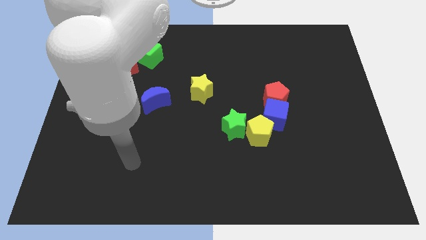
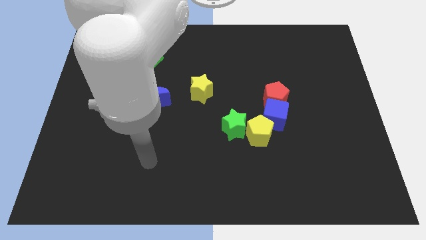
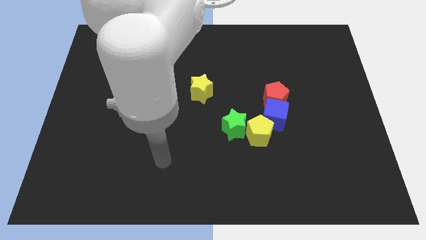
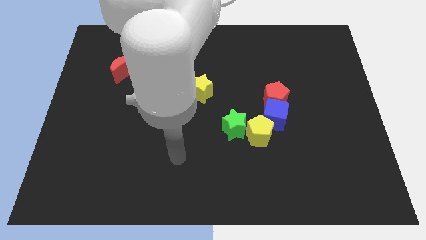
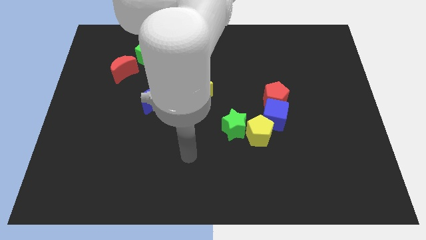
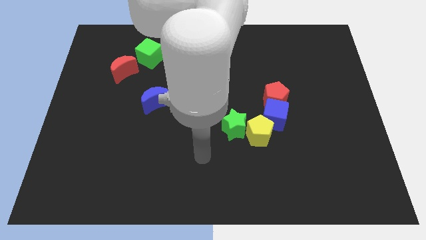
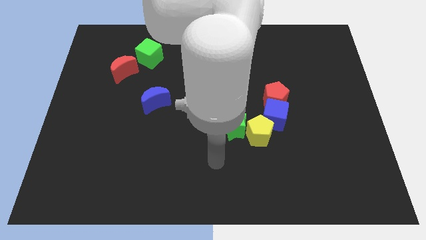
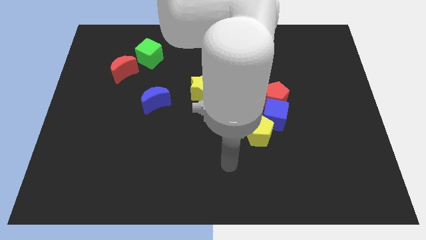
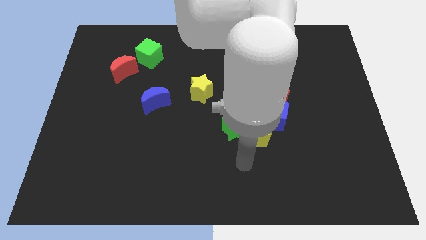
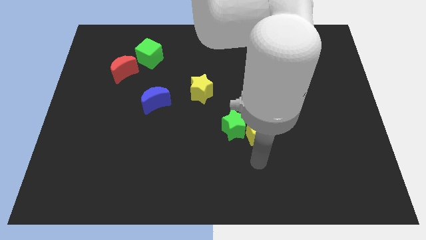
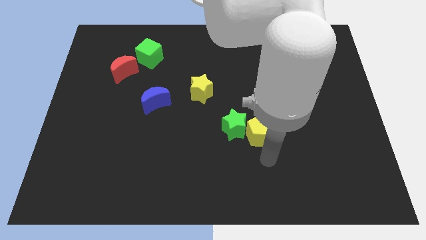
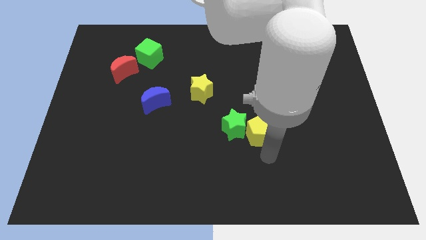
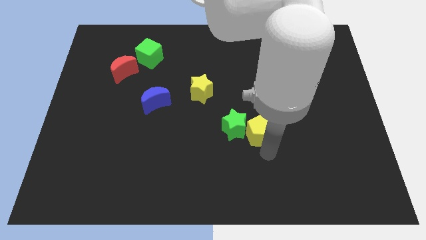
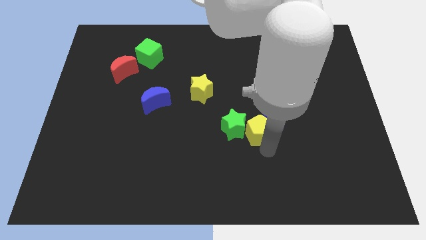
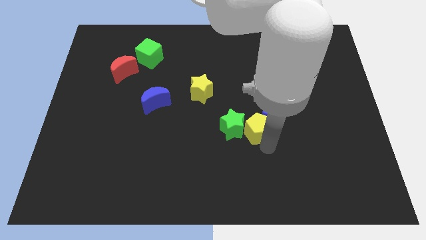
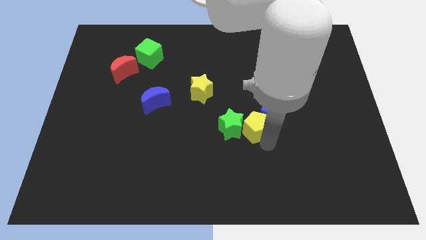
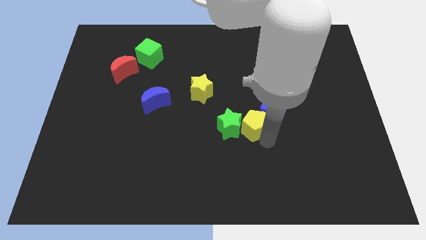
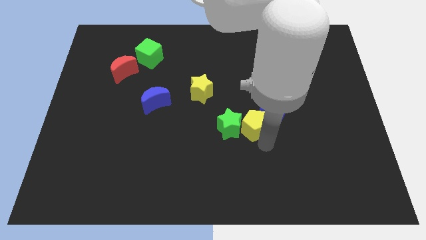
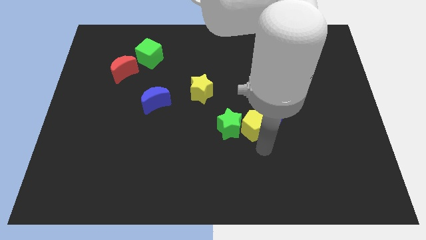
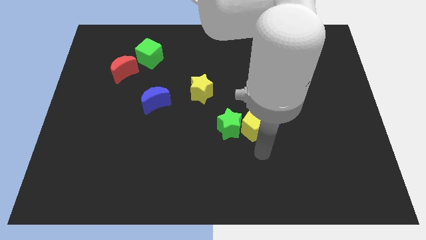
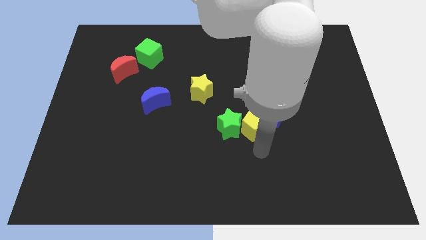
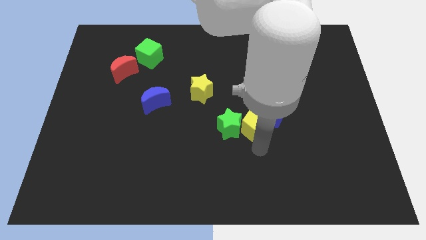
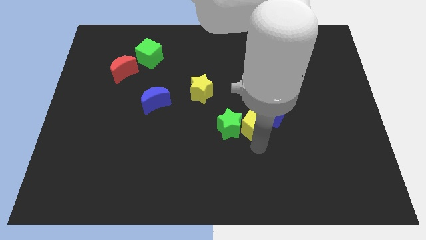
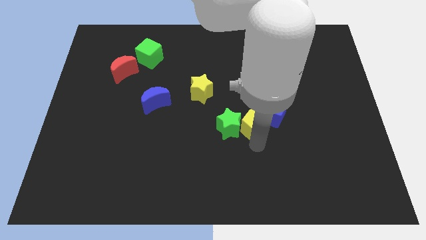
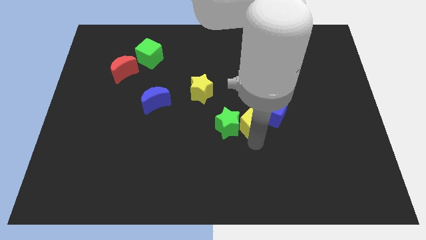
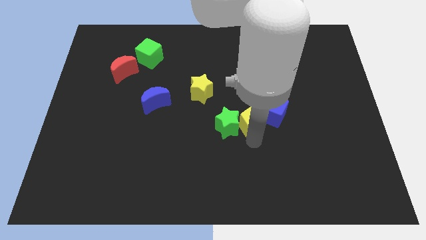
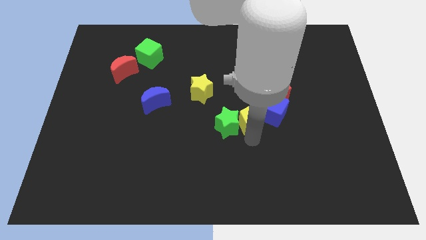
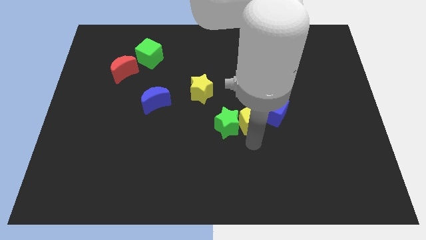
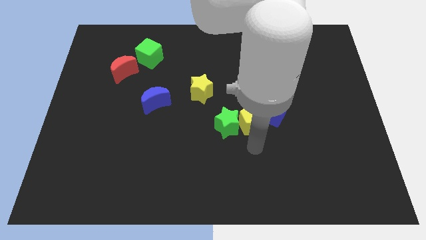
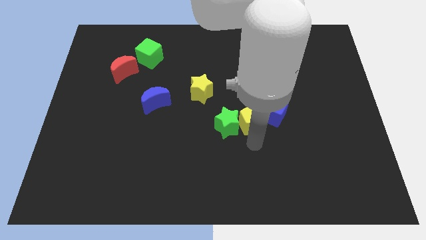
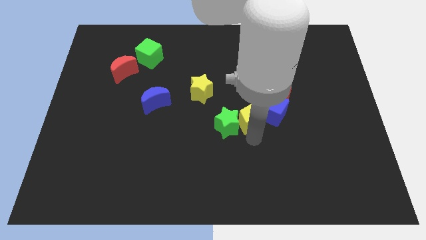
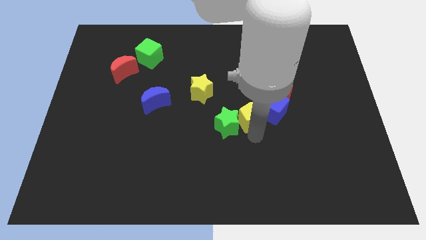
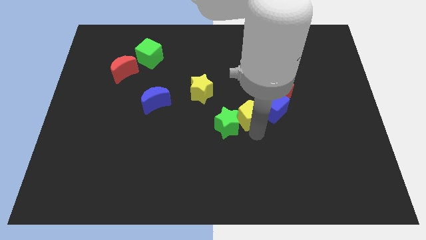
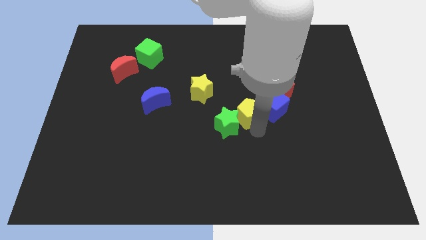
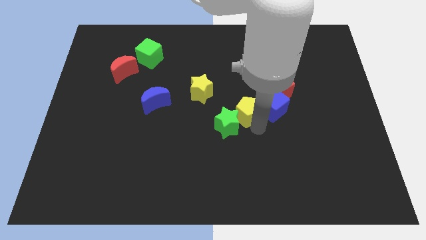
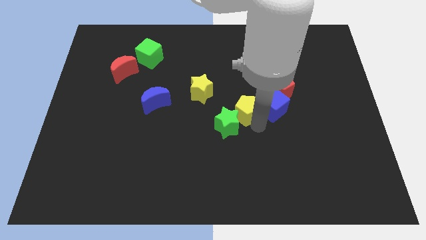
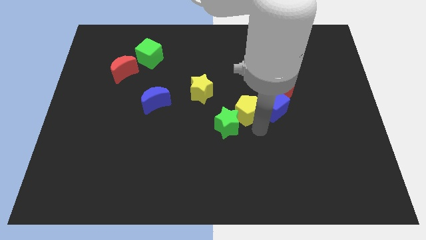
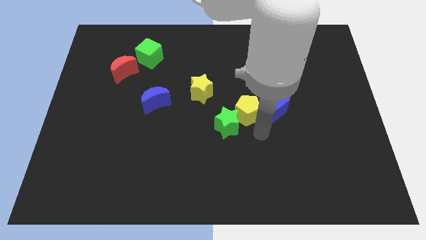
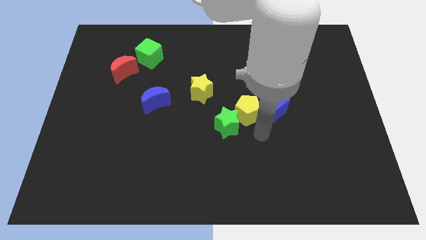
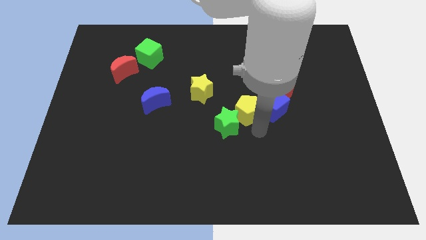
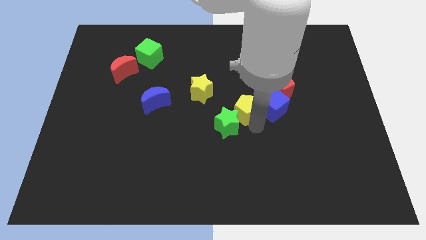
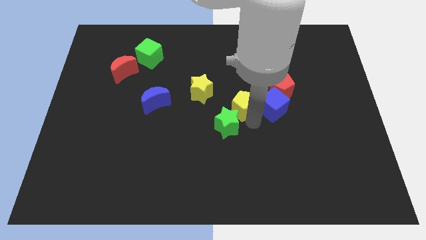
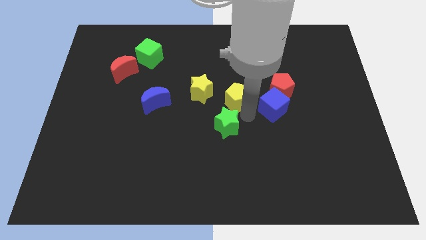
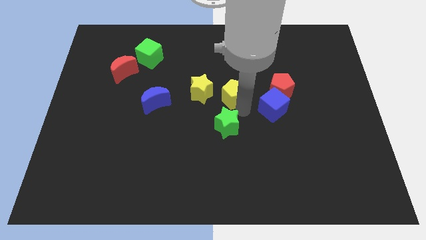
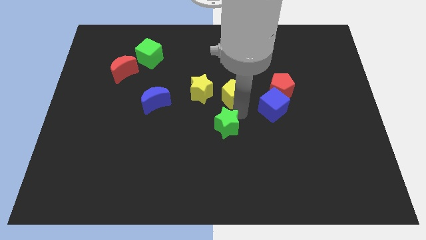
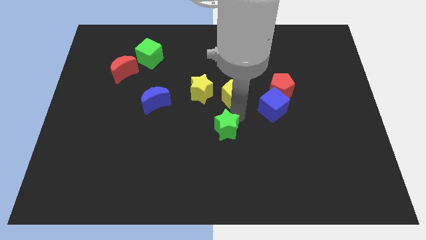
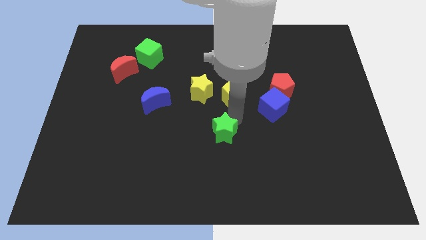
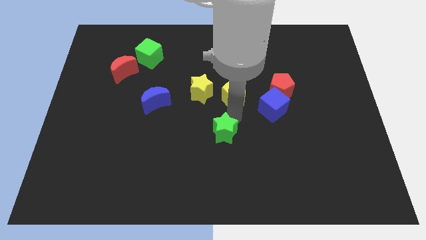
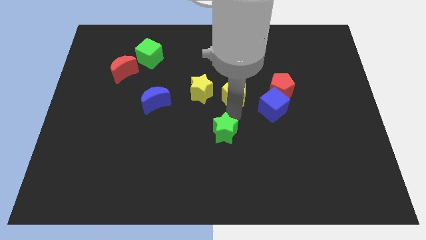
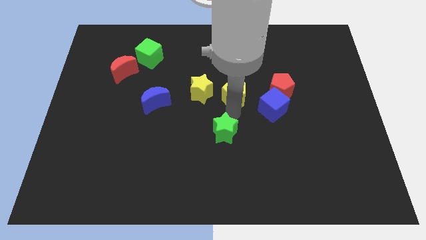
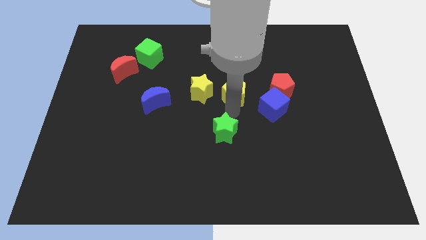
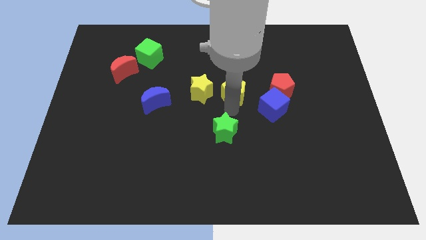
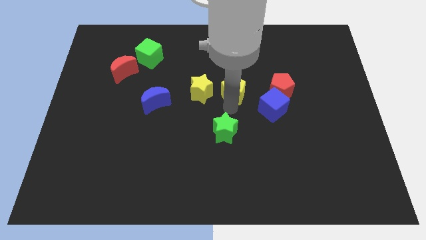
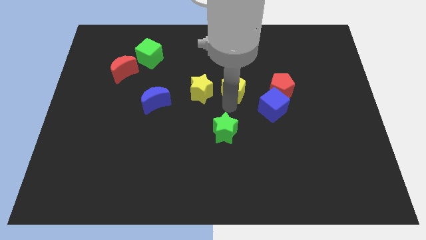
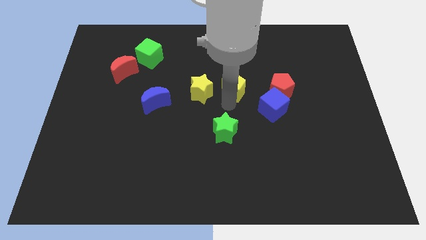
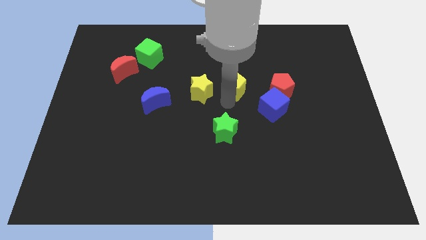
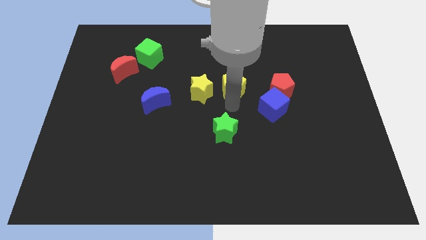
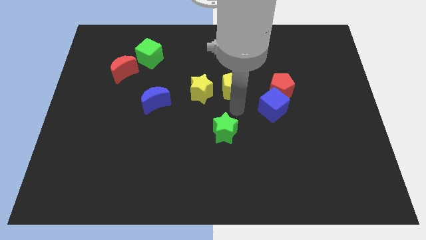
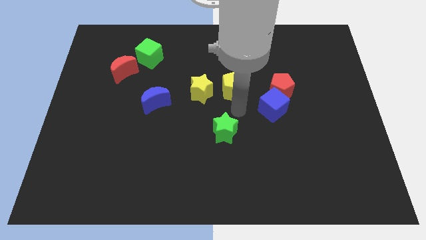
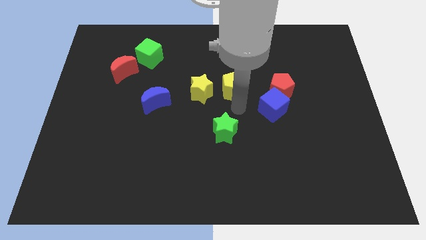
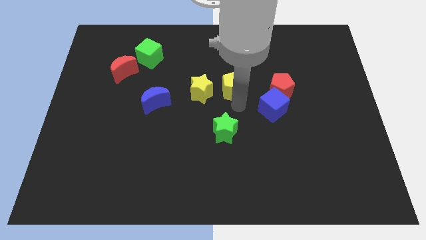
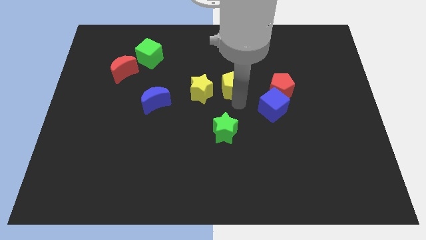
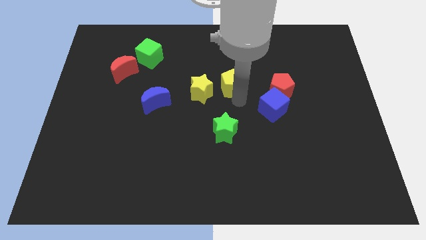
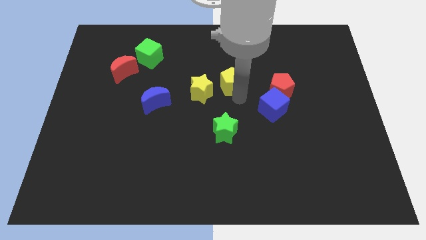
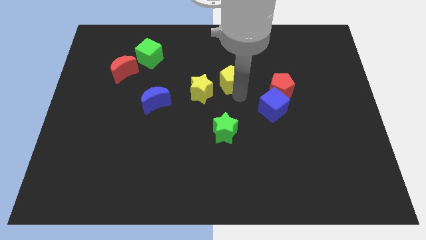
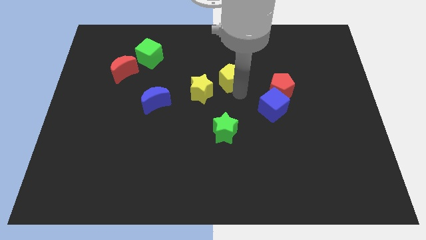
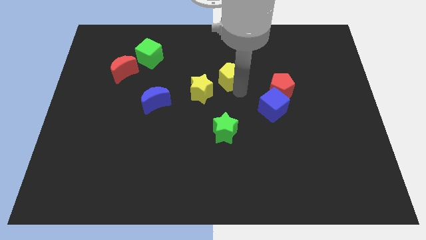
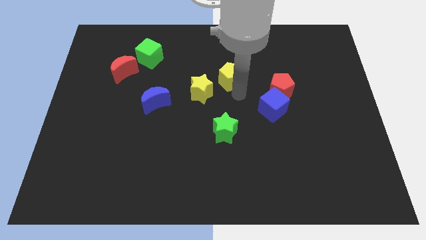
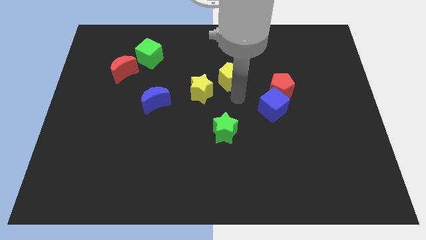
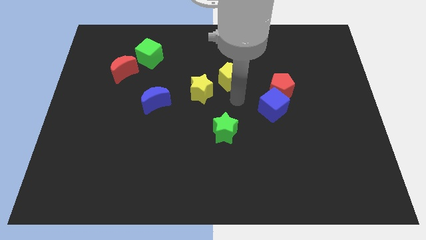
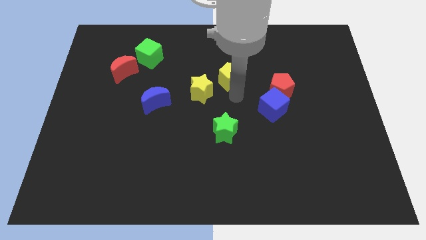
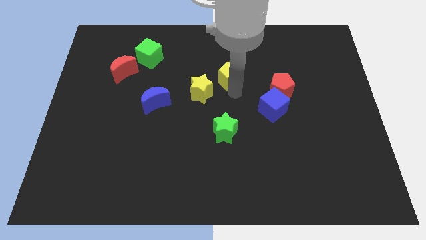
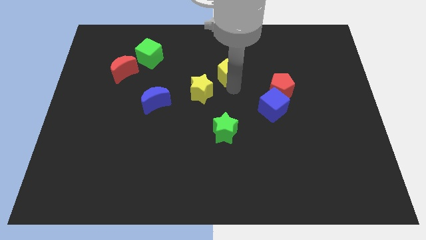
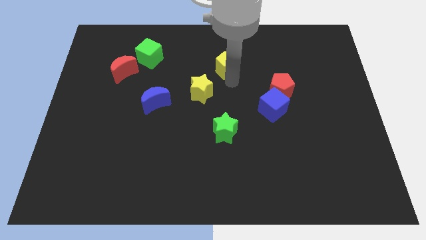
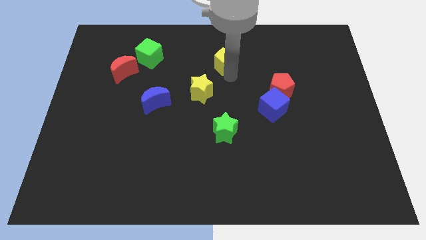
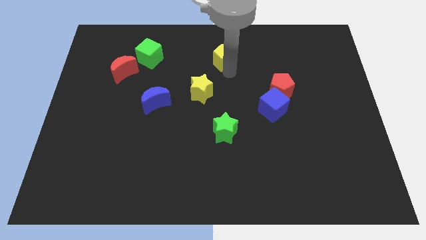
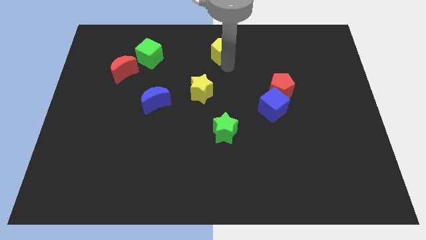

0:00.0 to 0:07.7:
push the yellow pentagon to the top
